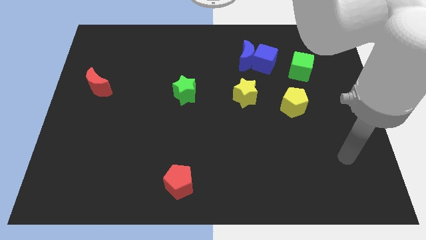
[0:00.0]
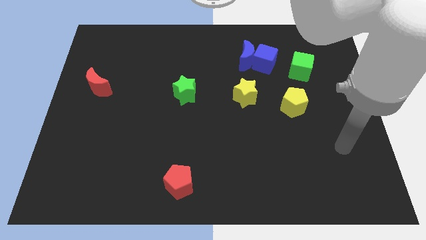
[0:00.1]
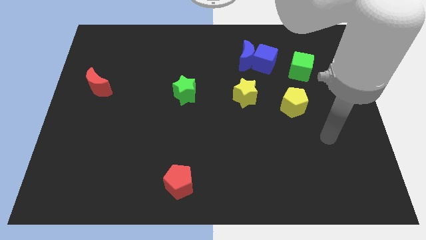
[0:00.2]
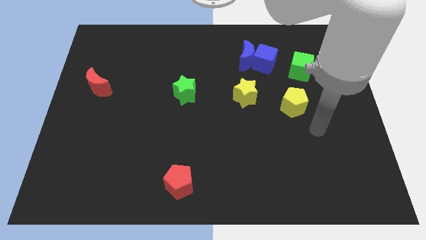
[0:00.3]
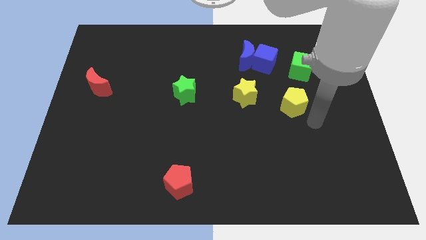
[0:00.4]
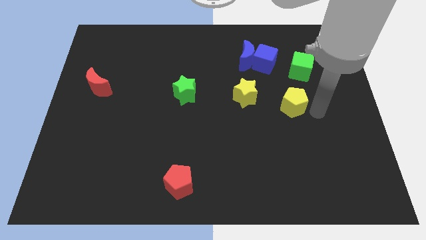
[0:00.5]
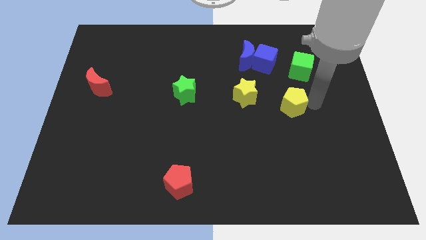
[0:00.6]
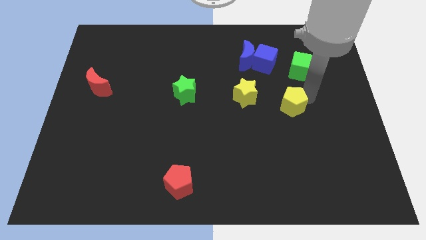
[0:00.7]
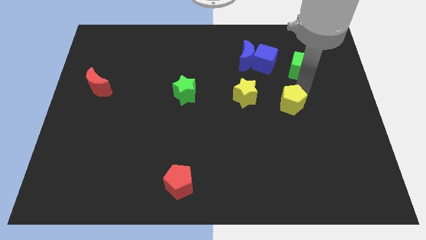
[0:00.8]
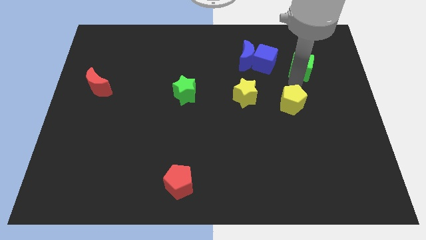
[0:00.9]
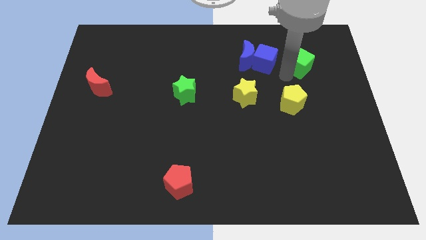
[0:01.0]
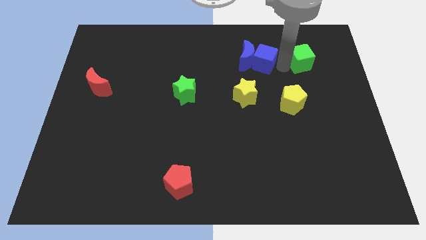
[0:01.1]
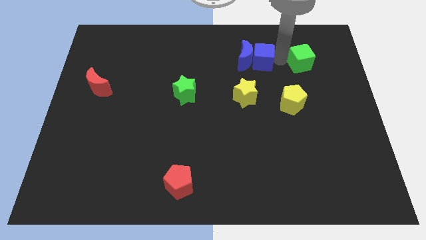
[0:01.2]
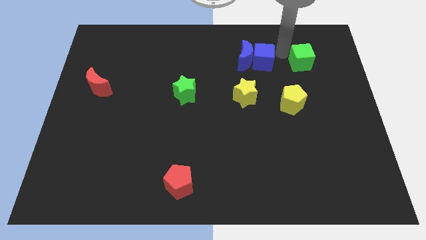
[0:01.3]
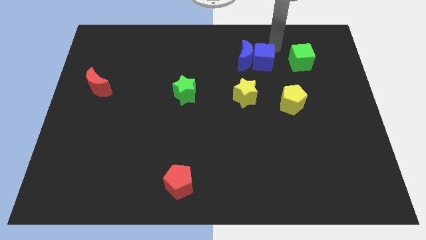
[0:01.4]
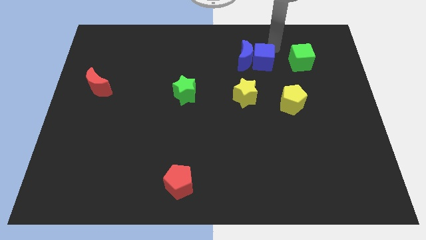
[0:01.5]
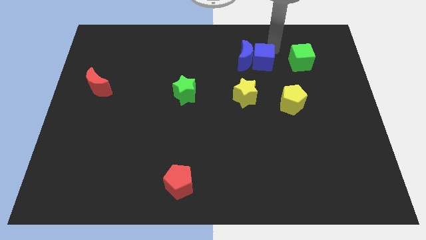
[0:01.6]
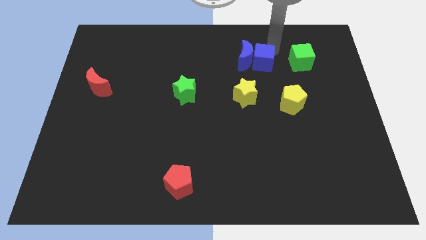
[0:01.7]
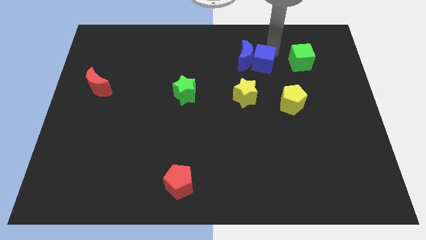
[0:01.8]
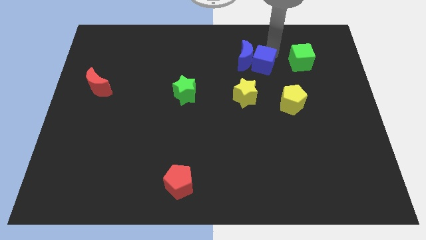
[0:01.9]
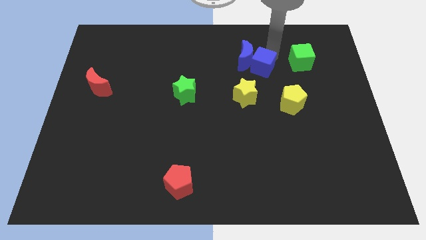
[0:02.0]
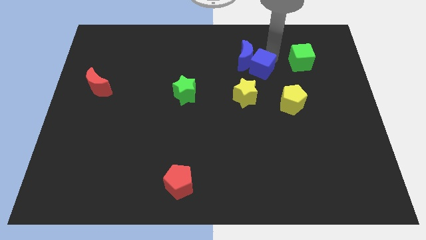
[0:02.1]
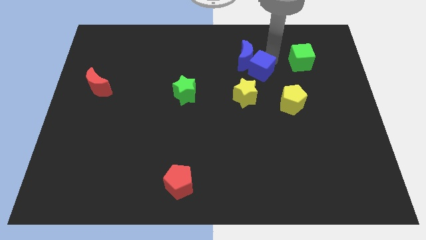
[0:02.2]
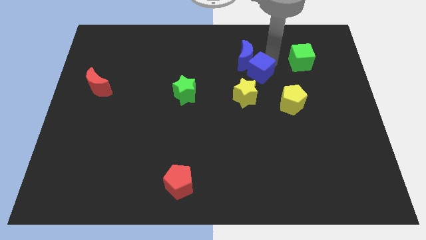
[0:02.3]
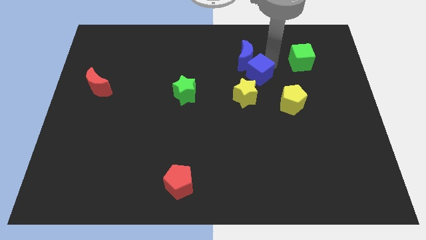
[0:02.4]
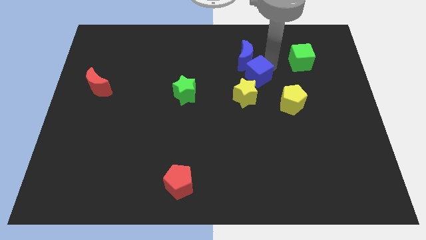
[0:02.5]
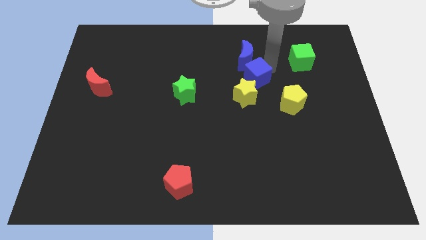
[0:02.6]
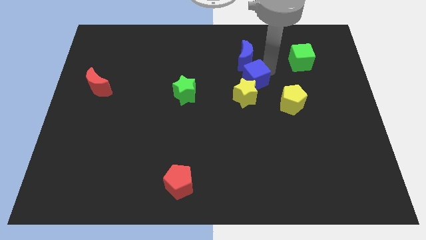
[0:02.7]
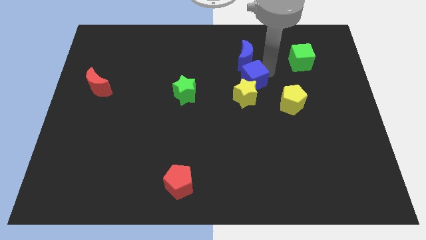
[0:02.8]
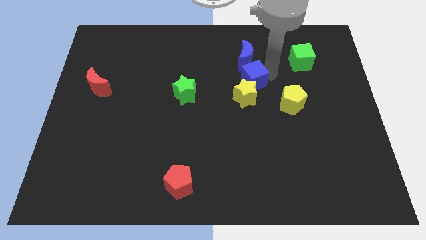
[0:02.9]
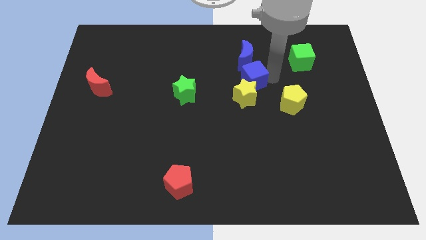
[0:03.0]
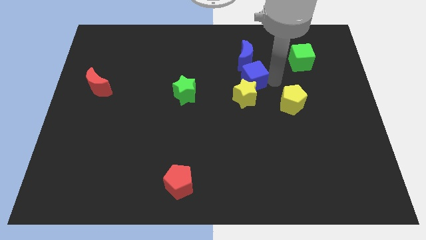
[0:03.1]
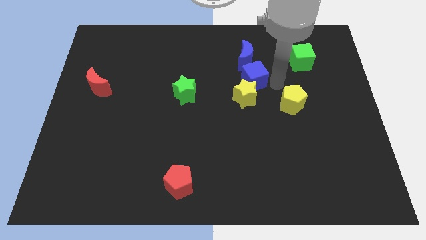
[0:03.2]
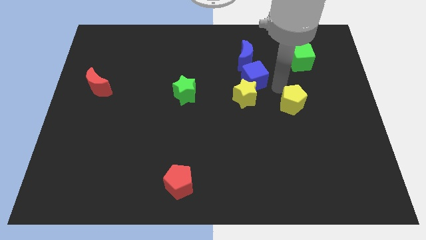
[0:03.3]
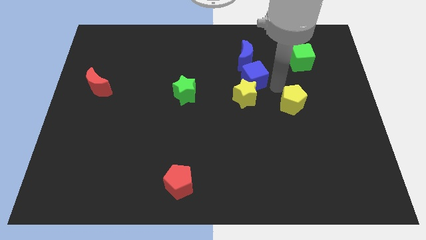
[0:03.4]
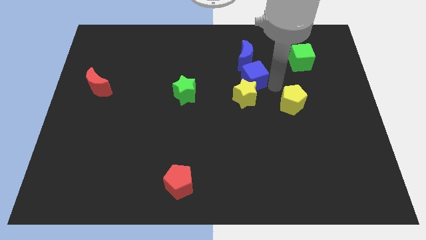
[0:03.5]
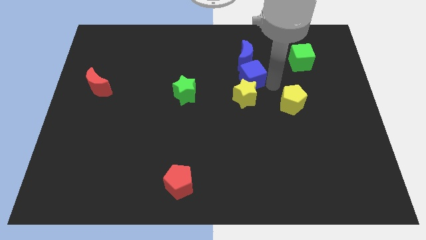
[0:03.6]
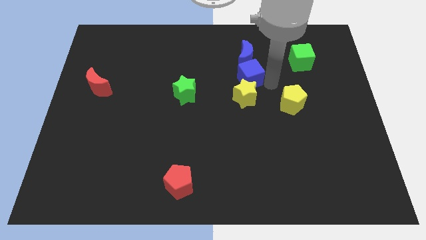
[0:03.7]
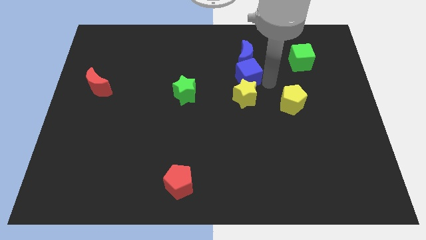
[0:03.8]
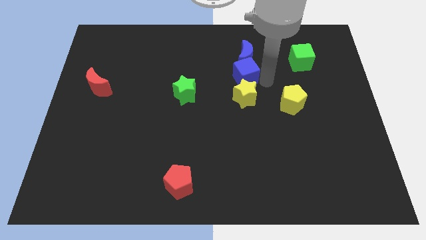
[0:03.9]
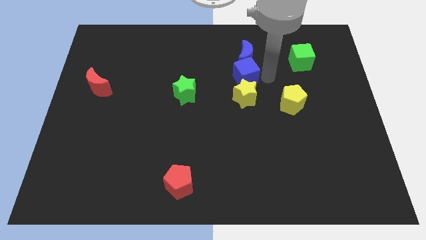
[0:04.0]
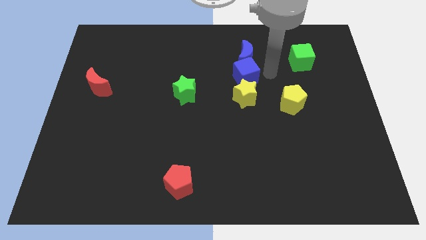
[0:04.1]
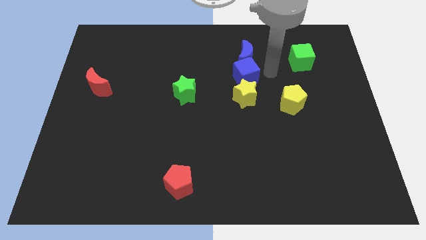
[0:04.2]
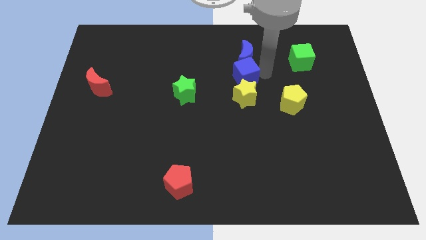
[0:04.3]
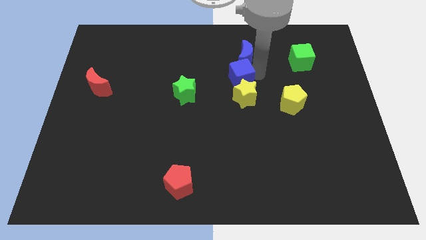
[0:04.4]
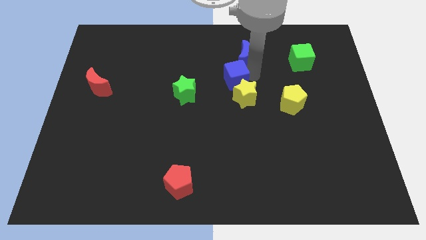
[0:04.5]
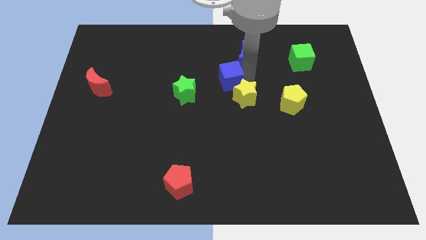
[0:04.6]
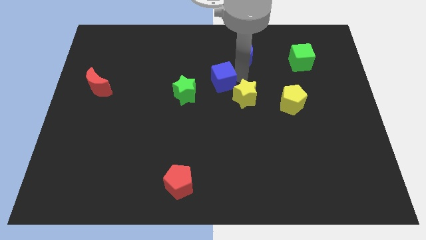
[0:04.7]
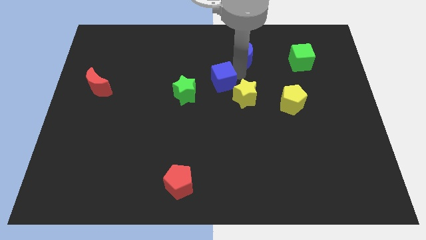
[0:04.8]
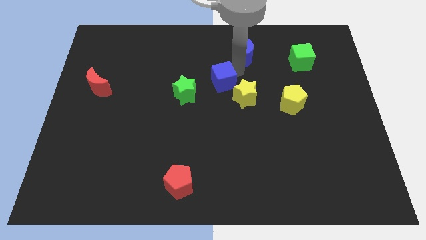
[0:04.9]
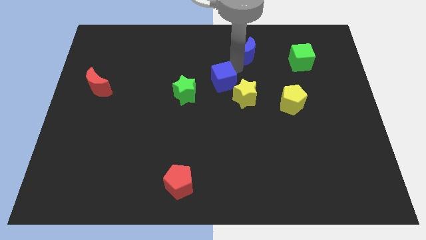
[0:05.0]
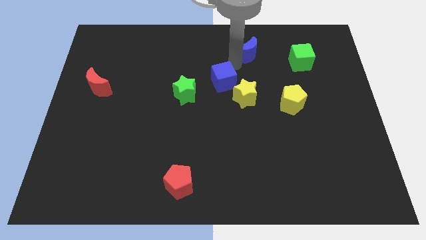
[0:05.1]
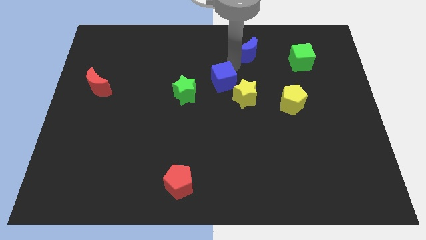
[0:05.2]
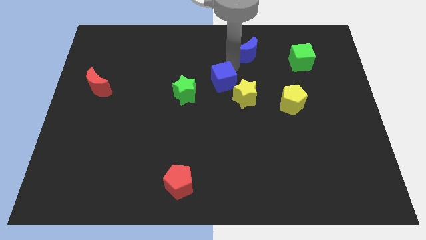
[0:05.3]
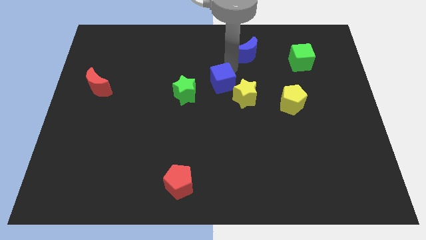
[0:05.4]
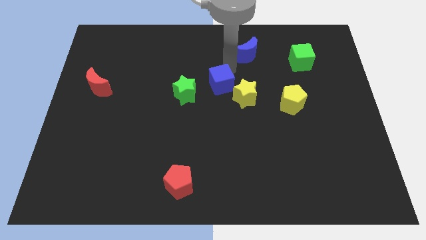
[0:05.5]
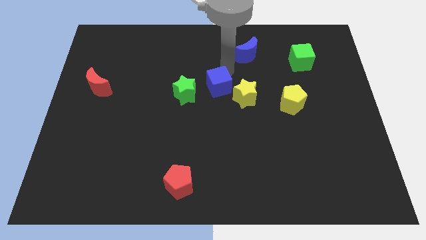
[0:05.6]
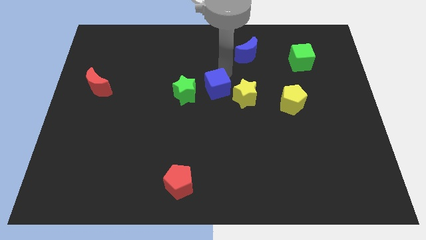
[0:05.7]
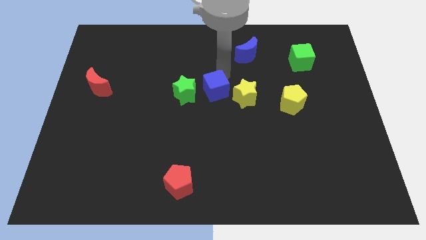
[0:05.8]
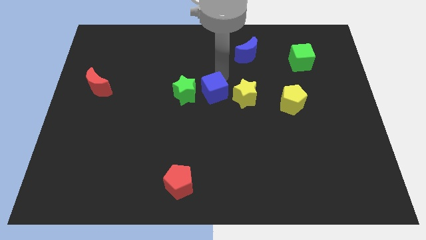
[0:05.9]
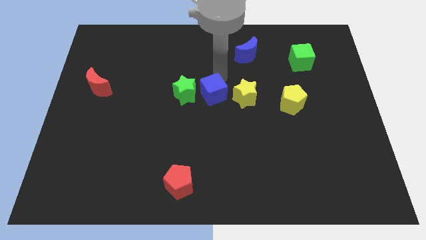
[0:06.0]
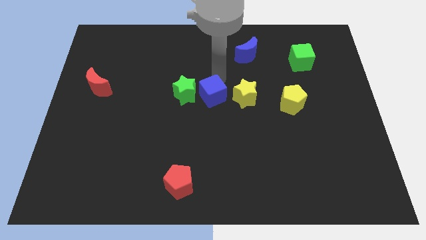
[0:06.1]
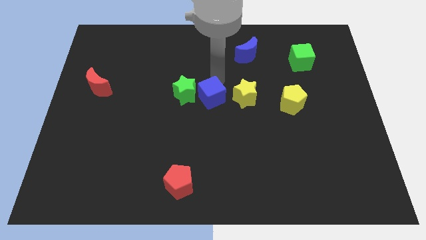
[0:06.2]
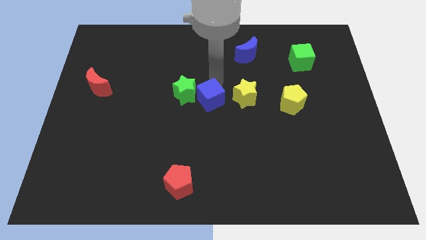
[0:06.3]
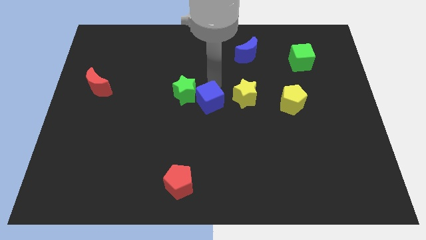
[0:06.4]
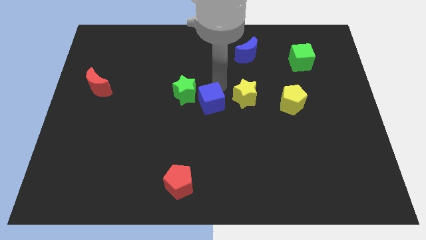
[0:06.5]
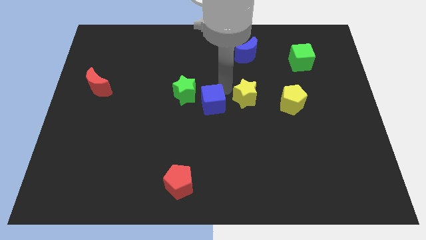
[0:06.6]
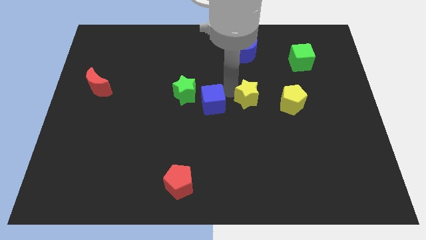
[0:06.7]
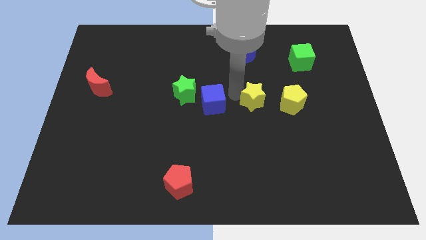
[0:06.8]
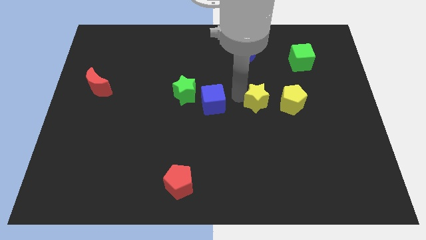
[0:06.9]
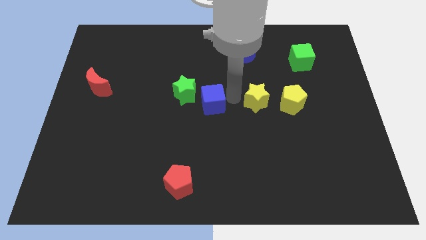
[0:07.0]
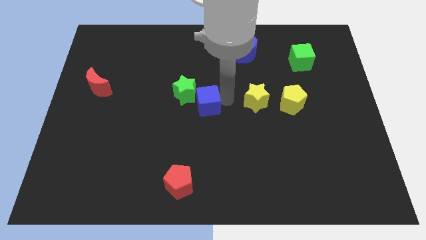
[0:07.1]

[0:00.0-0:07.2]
slide the blue cube diagonally downwards and left

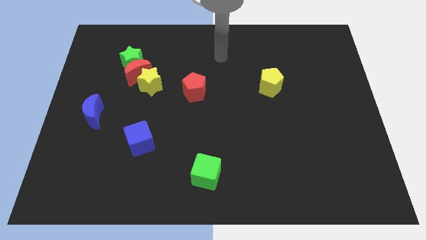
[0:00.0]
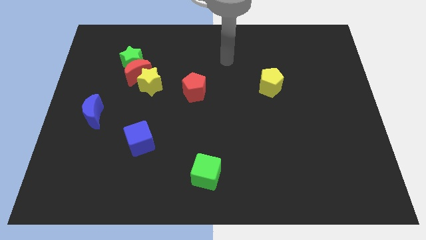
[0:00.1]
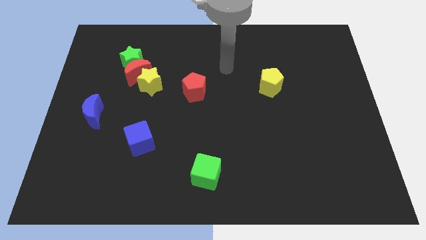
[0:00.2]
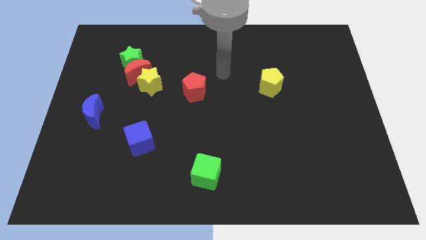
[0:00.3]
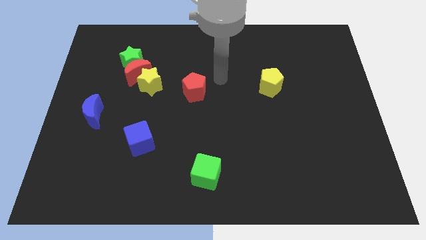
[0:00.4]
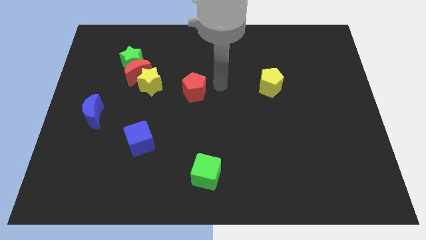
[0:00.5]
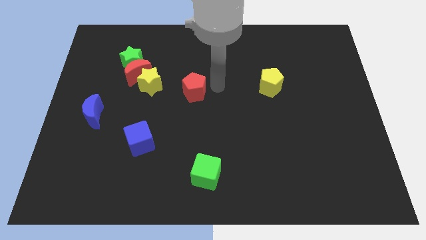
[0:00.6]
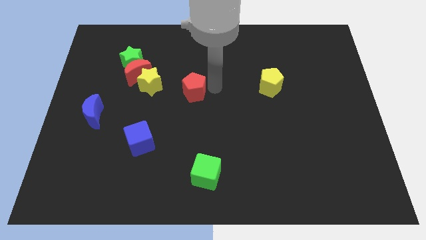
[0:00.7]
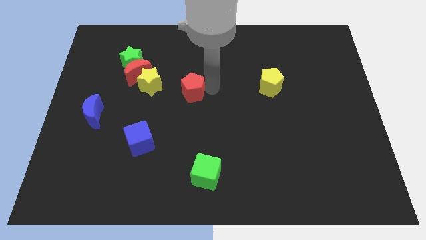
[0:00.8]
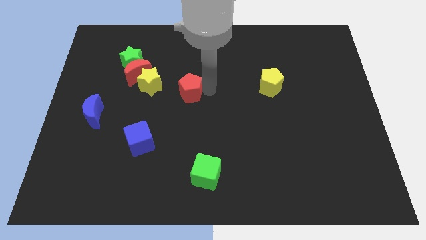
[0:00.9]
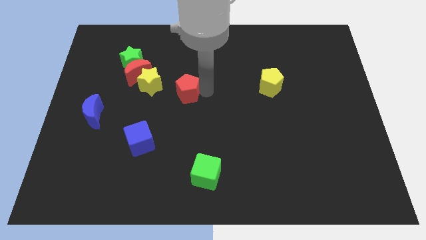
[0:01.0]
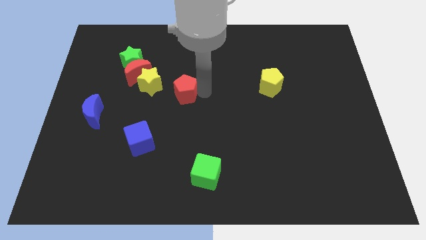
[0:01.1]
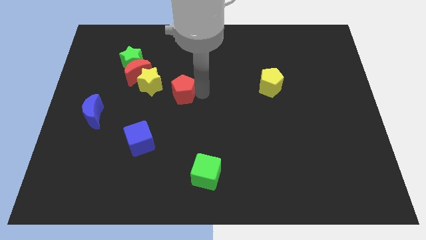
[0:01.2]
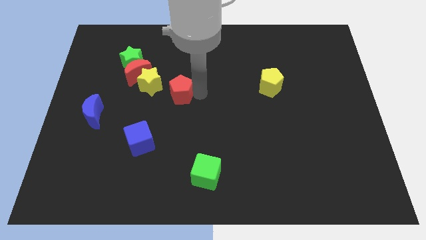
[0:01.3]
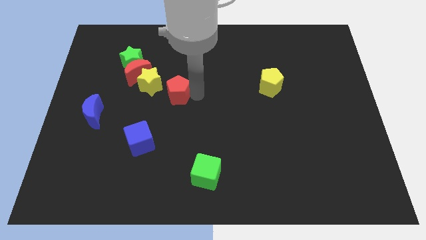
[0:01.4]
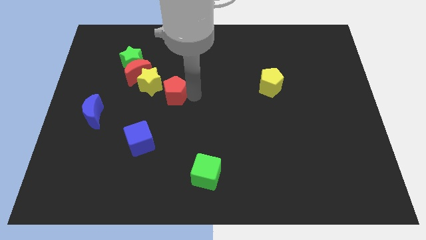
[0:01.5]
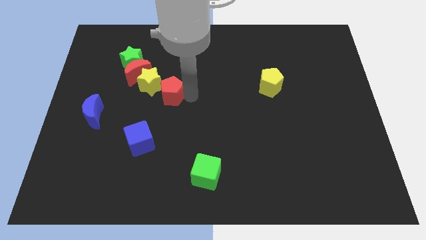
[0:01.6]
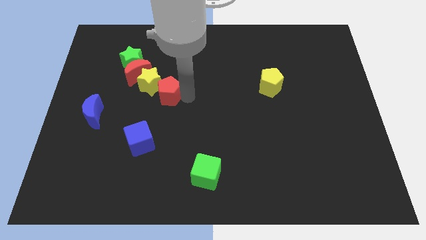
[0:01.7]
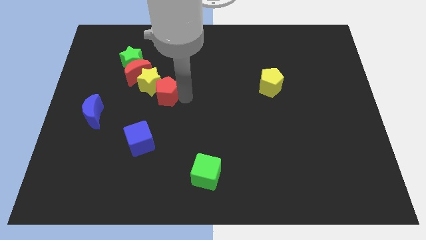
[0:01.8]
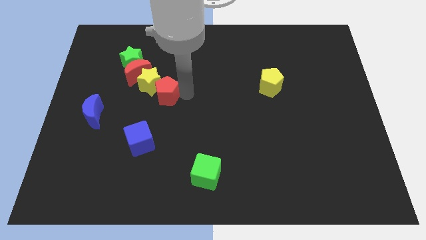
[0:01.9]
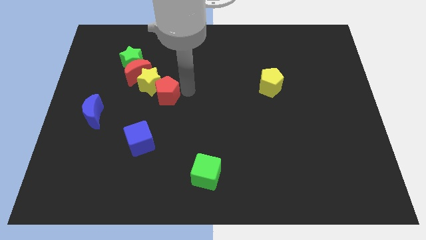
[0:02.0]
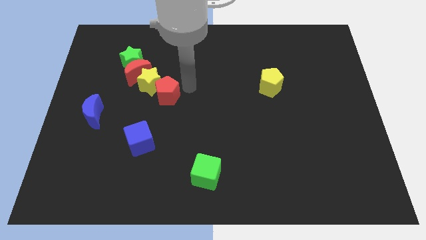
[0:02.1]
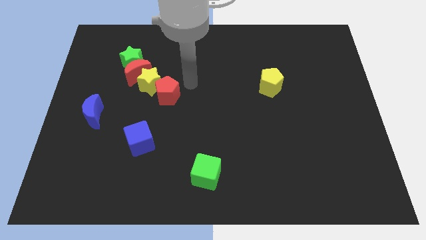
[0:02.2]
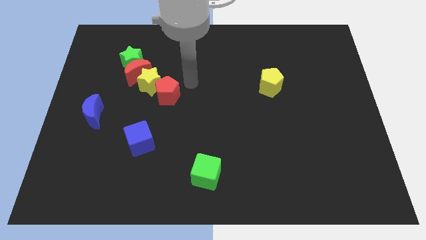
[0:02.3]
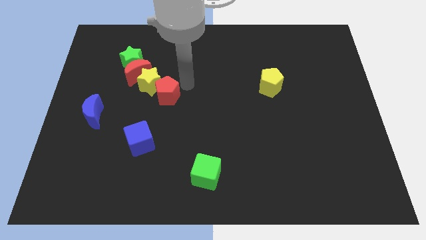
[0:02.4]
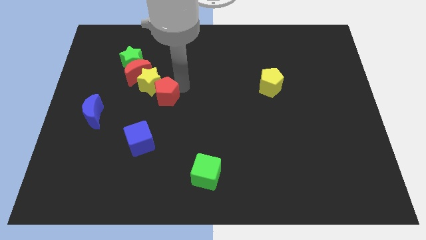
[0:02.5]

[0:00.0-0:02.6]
slide the red pentagon left slightly
